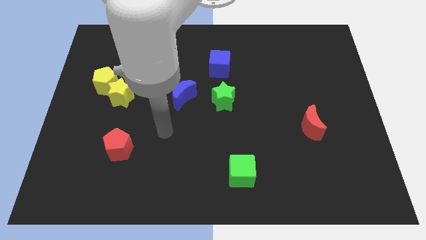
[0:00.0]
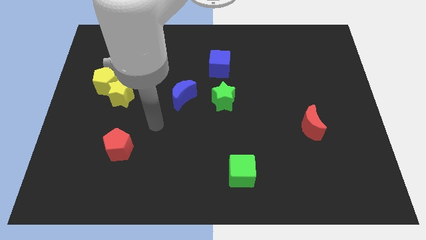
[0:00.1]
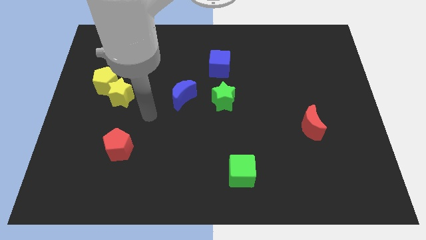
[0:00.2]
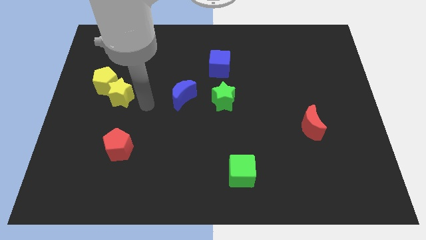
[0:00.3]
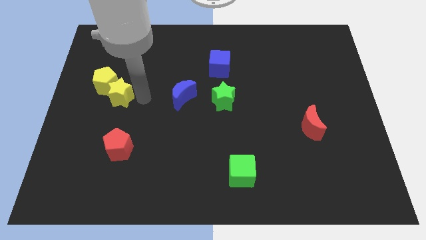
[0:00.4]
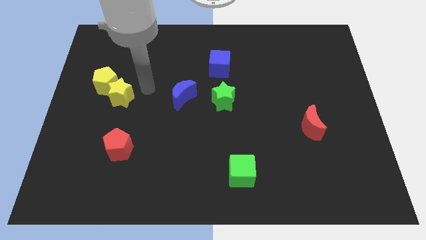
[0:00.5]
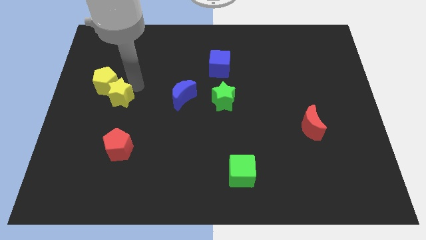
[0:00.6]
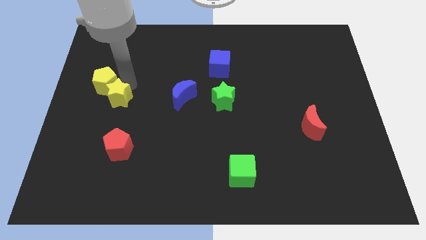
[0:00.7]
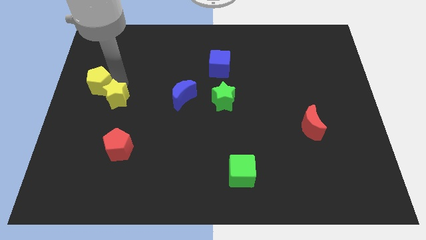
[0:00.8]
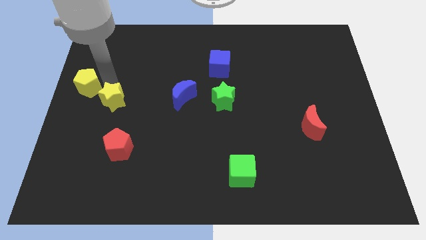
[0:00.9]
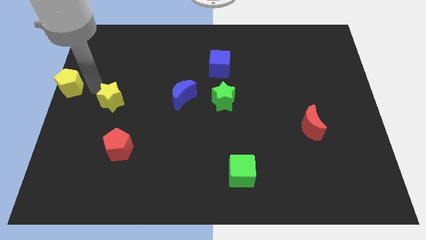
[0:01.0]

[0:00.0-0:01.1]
pull the yellow star apart from the yellow pentagon

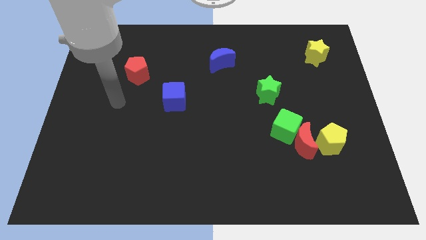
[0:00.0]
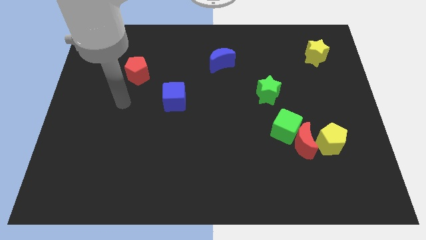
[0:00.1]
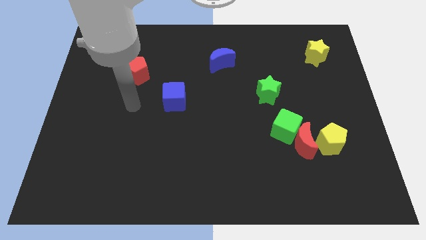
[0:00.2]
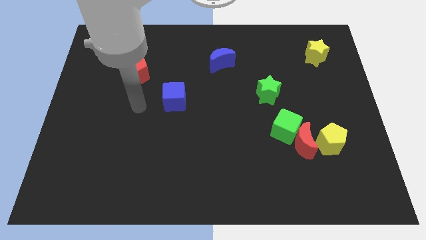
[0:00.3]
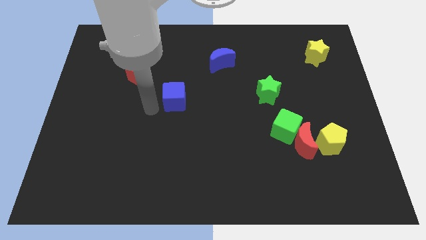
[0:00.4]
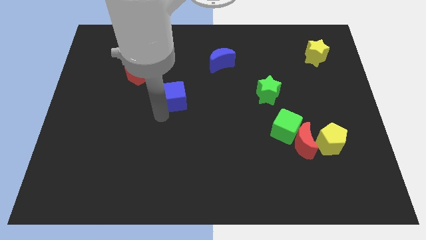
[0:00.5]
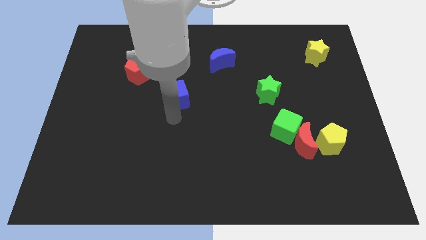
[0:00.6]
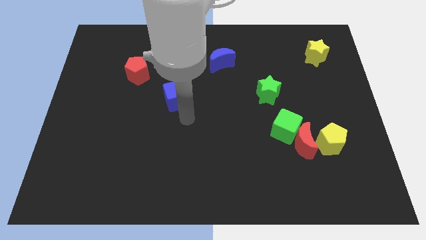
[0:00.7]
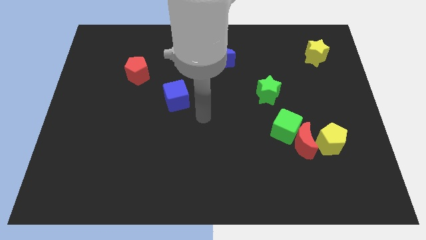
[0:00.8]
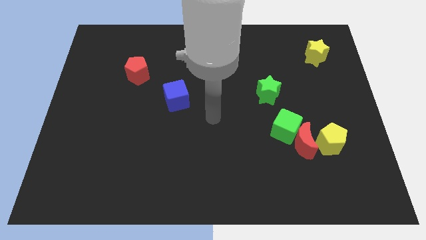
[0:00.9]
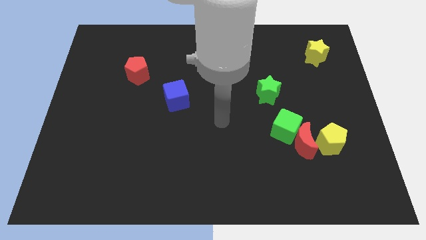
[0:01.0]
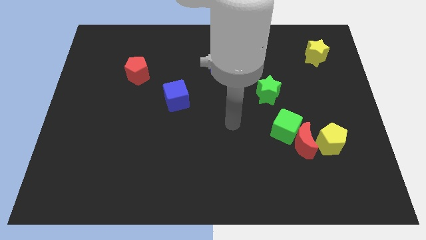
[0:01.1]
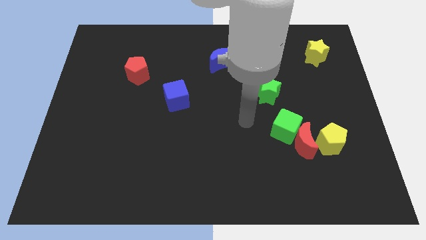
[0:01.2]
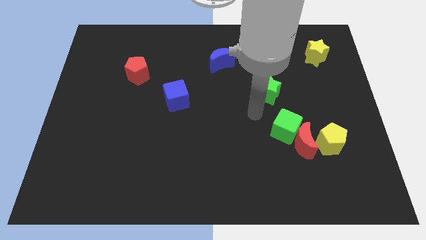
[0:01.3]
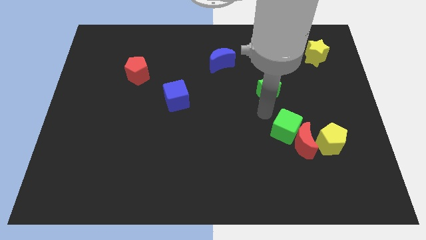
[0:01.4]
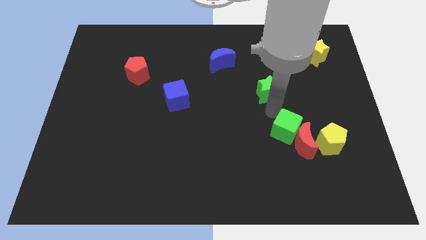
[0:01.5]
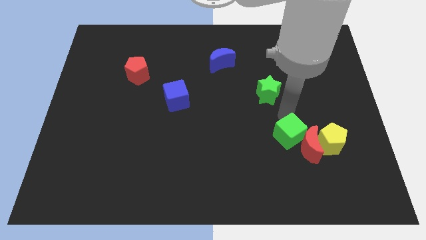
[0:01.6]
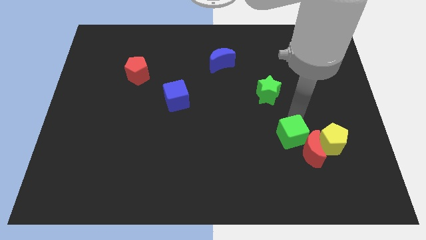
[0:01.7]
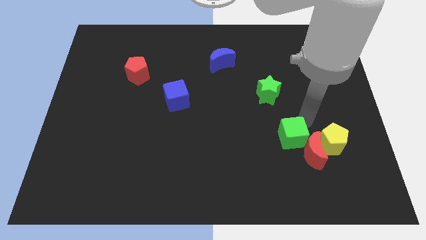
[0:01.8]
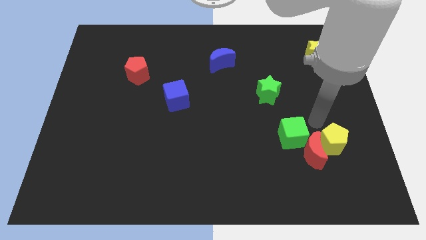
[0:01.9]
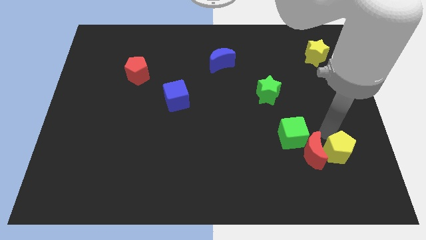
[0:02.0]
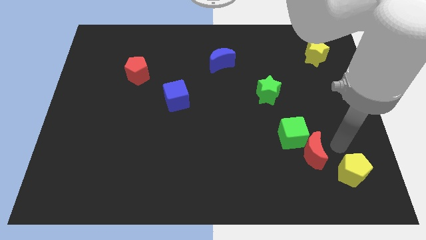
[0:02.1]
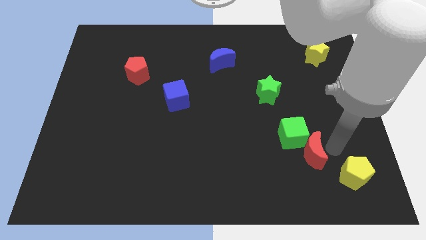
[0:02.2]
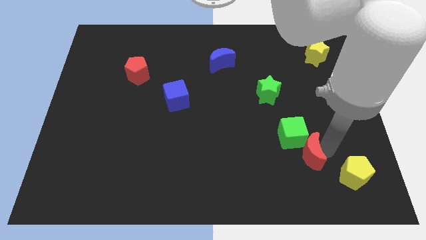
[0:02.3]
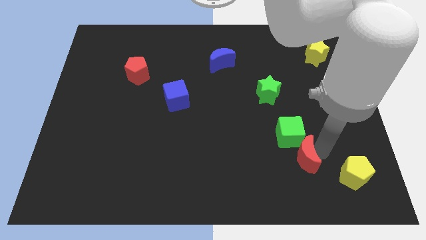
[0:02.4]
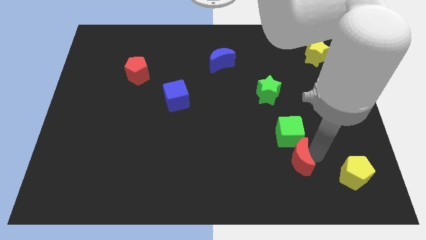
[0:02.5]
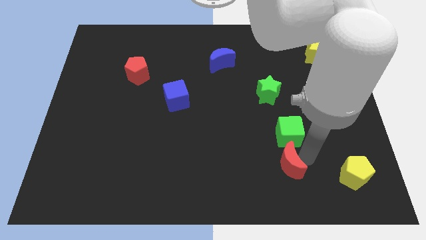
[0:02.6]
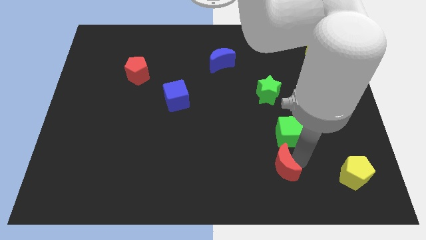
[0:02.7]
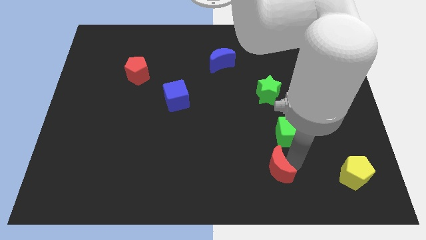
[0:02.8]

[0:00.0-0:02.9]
separate the red moon from the green cube and yellow pentagon

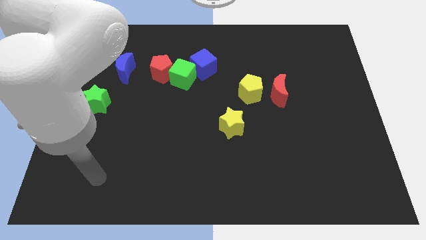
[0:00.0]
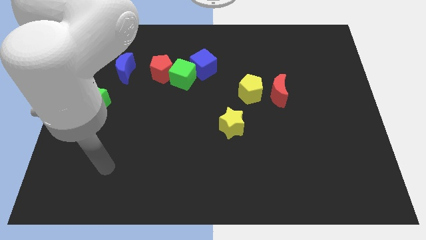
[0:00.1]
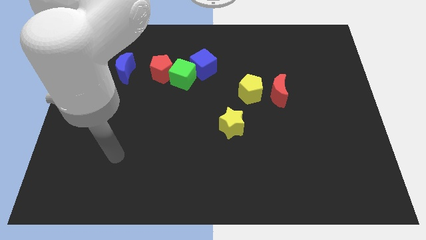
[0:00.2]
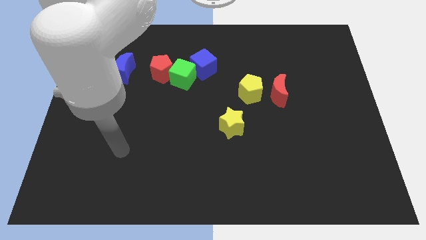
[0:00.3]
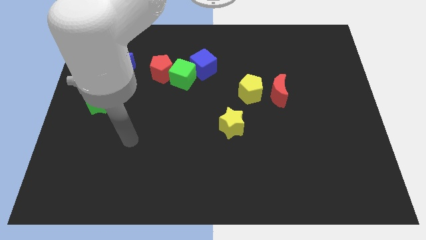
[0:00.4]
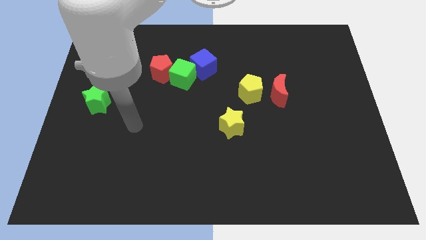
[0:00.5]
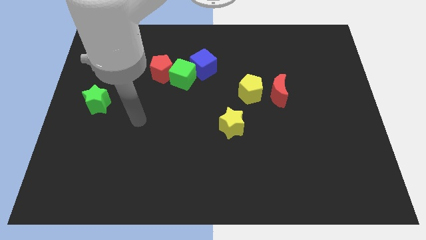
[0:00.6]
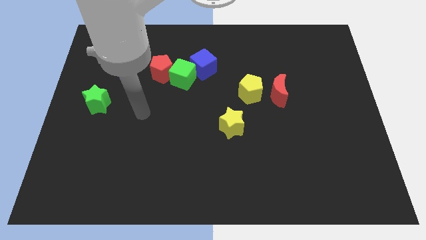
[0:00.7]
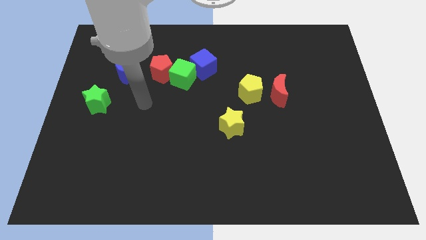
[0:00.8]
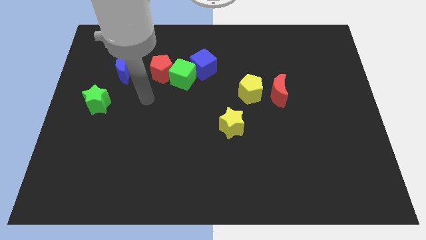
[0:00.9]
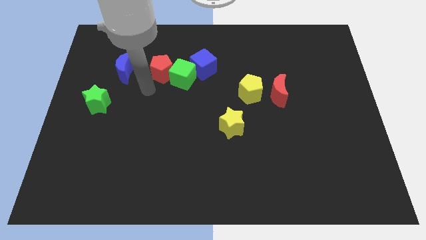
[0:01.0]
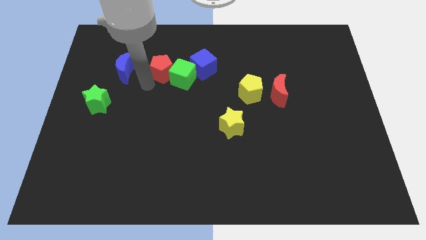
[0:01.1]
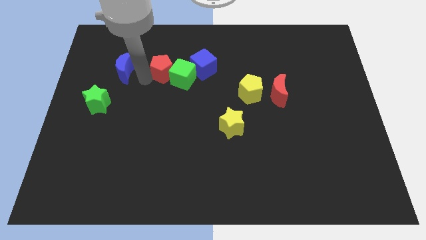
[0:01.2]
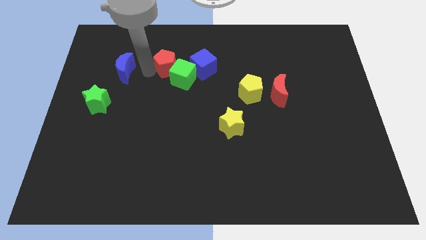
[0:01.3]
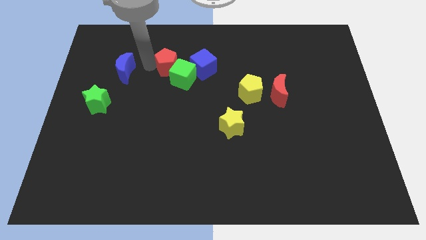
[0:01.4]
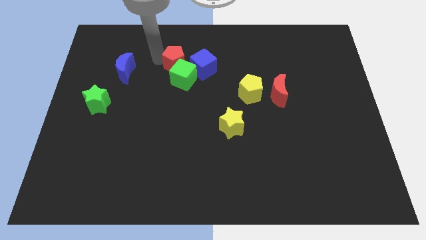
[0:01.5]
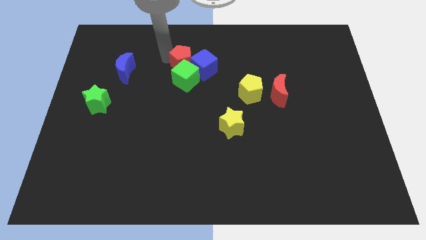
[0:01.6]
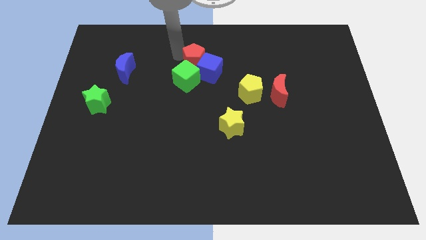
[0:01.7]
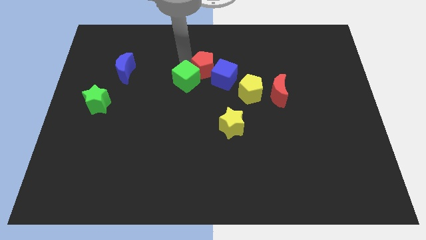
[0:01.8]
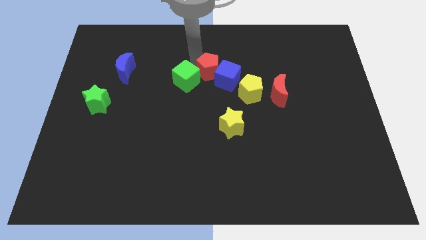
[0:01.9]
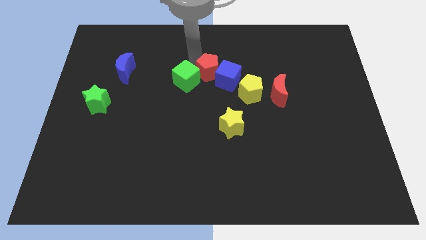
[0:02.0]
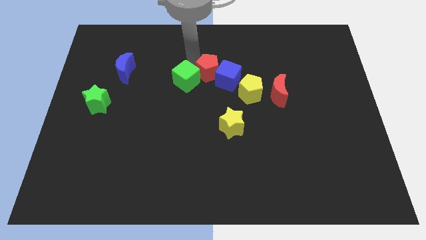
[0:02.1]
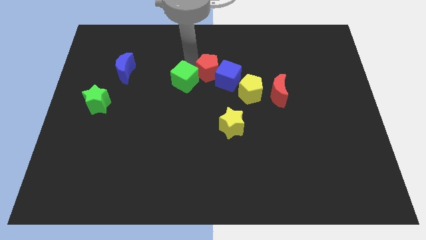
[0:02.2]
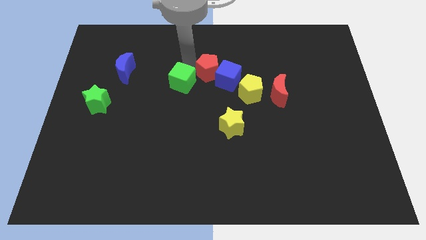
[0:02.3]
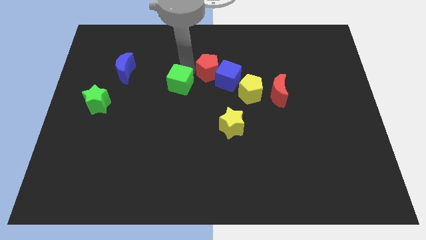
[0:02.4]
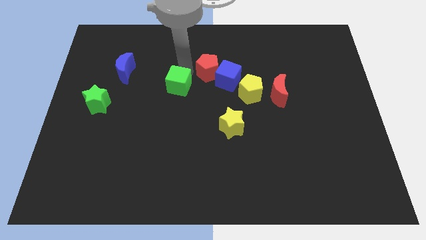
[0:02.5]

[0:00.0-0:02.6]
pull the green cube apart from the red pentagon and blue cube

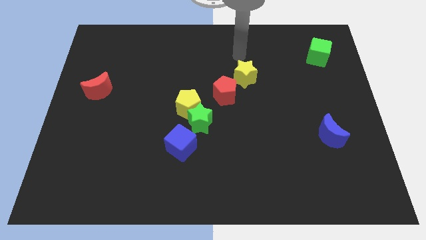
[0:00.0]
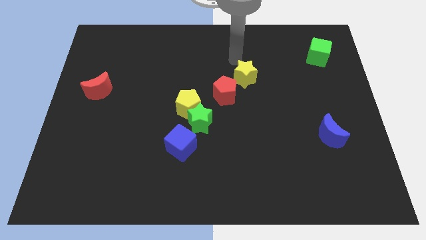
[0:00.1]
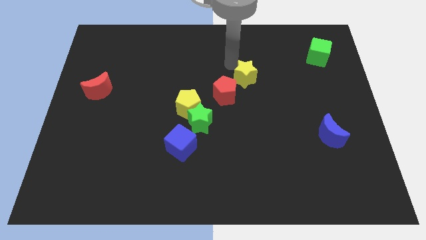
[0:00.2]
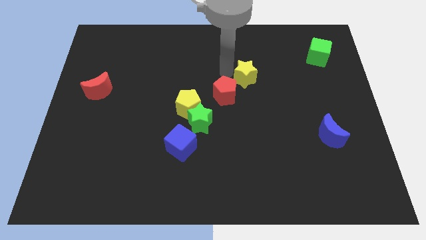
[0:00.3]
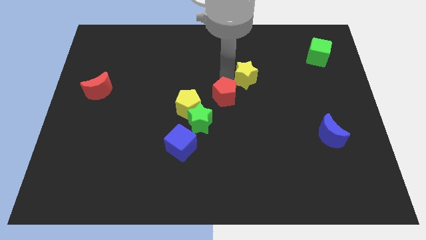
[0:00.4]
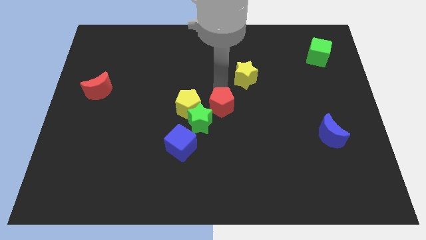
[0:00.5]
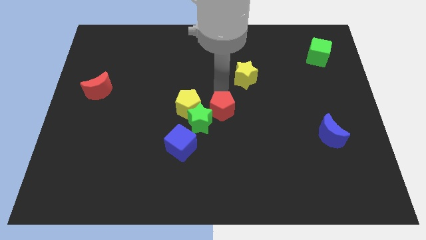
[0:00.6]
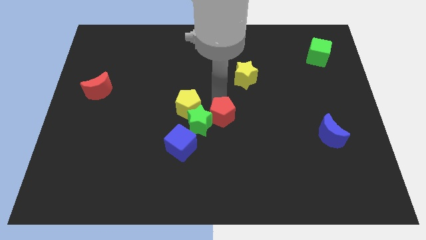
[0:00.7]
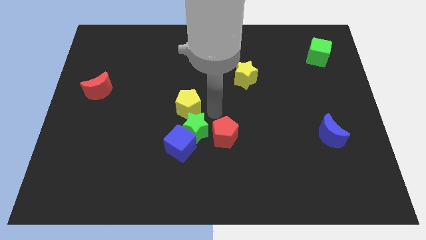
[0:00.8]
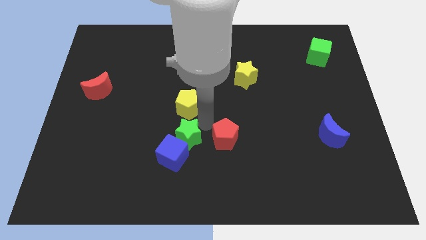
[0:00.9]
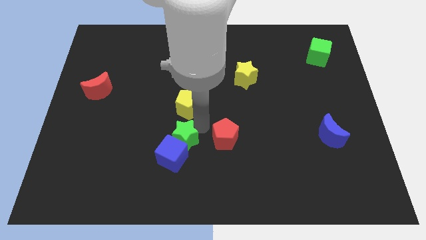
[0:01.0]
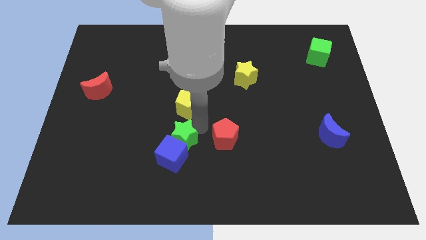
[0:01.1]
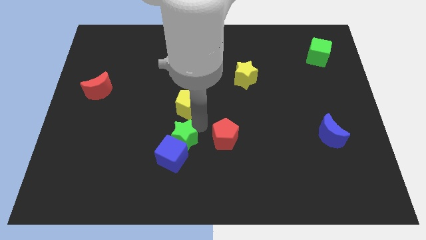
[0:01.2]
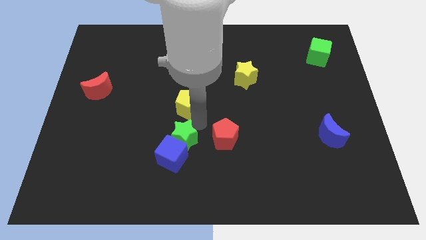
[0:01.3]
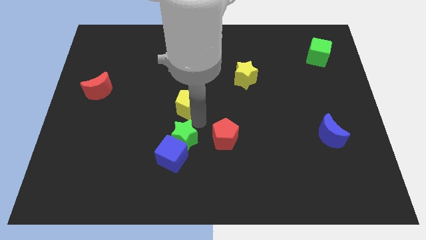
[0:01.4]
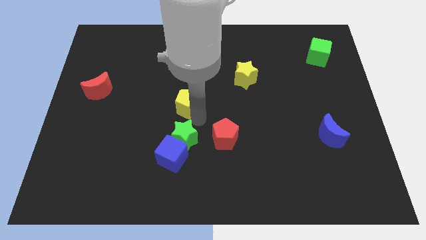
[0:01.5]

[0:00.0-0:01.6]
separate the yellow pentagon from the green star and red pentagon

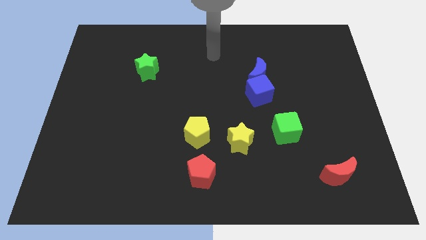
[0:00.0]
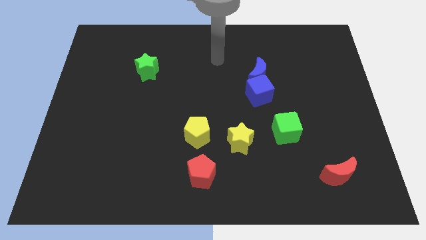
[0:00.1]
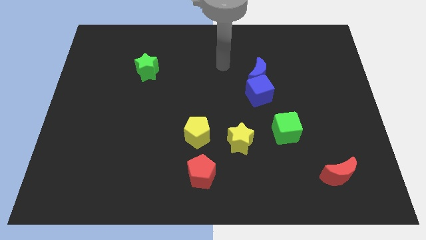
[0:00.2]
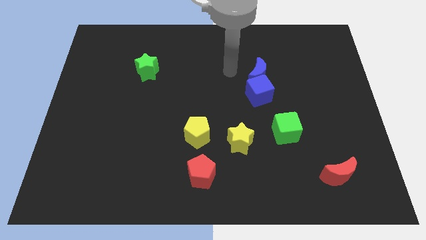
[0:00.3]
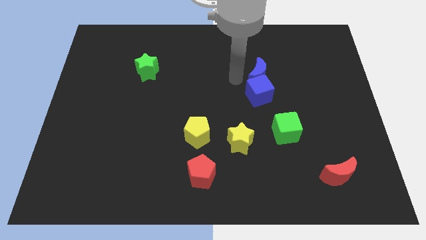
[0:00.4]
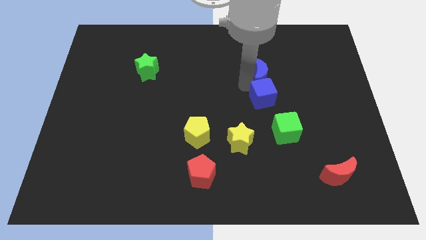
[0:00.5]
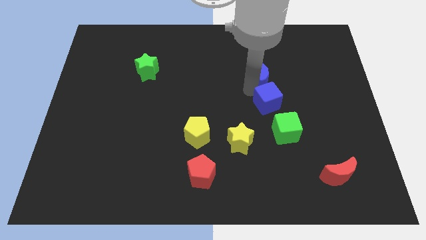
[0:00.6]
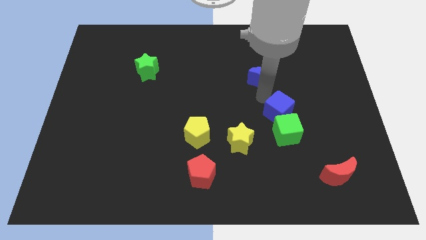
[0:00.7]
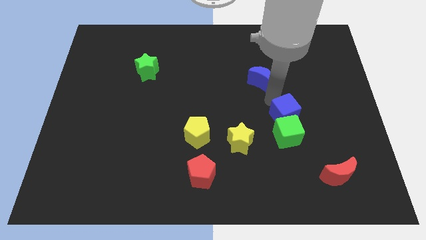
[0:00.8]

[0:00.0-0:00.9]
move the blue moon away from the blue cube

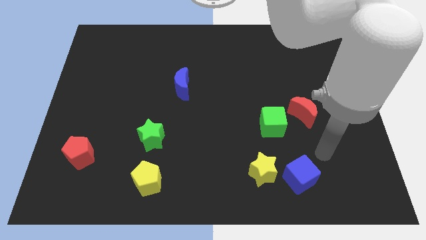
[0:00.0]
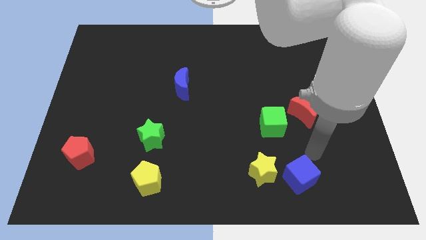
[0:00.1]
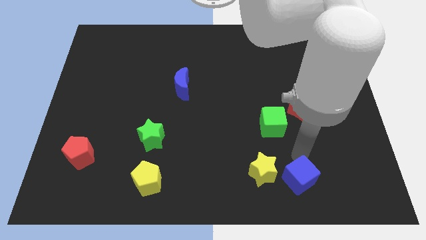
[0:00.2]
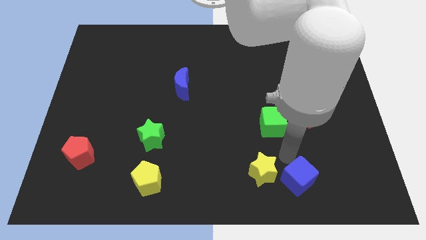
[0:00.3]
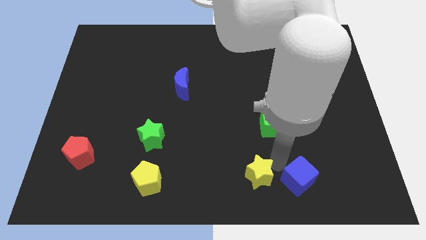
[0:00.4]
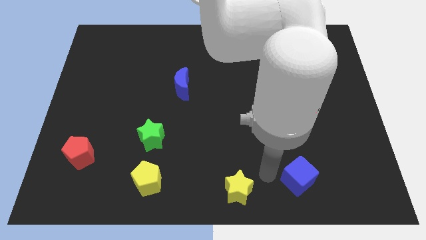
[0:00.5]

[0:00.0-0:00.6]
separate the blue cube from the yellow star
